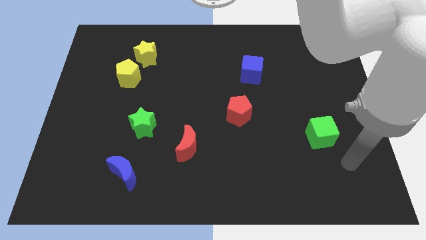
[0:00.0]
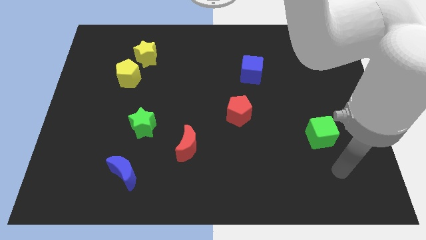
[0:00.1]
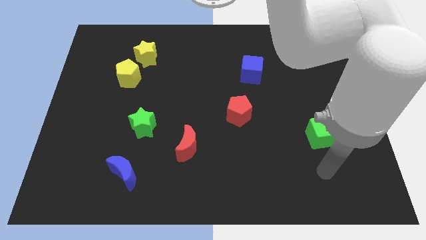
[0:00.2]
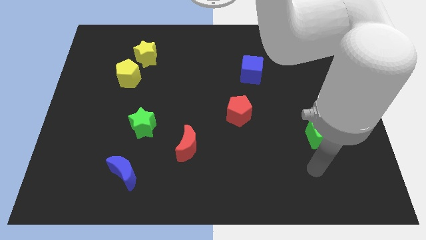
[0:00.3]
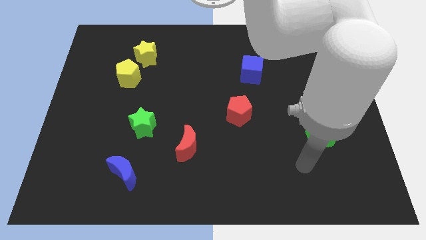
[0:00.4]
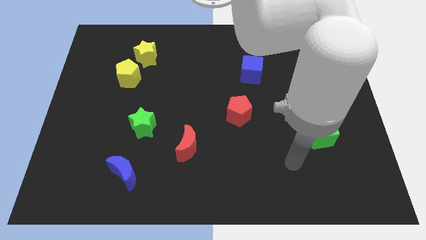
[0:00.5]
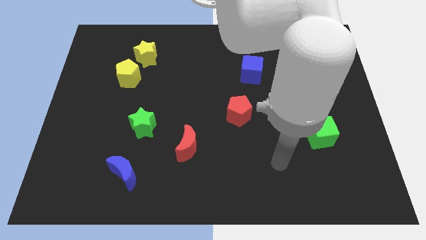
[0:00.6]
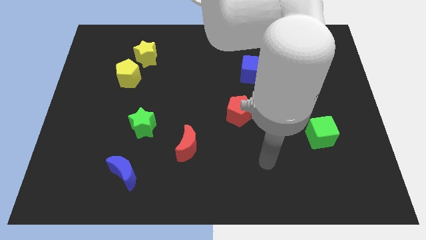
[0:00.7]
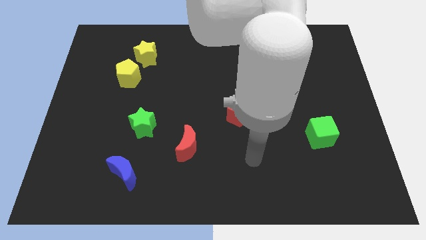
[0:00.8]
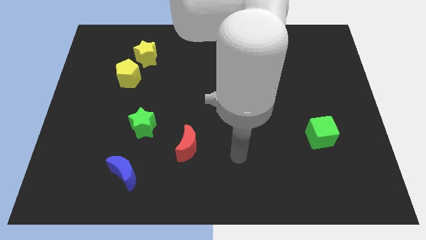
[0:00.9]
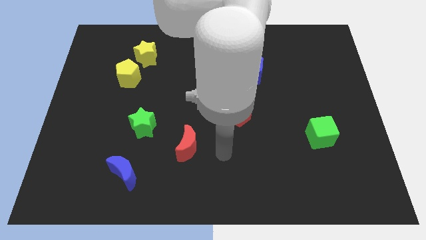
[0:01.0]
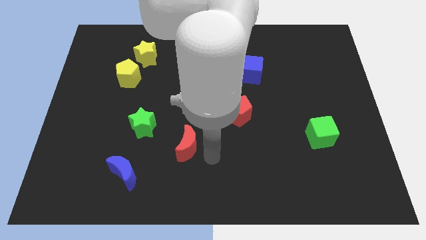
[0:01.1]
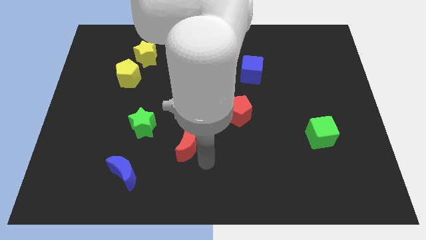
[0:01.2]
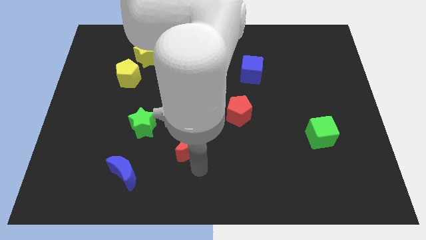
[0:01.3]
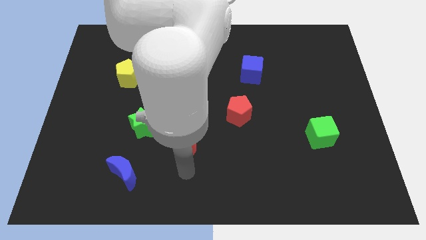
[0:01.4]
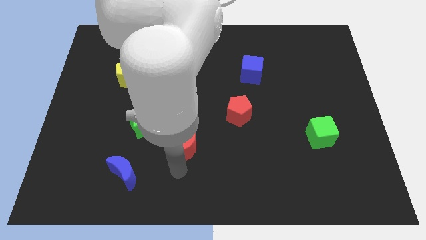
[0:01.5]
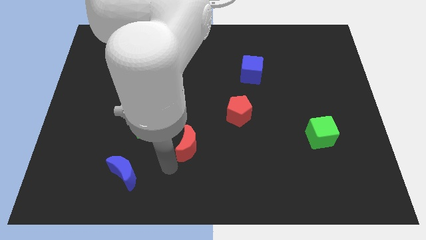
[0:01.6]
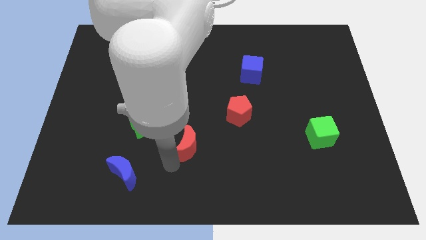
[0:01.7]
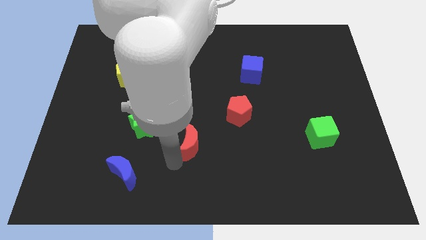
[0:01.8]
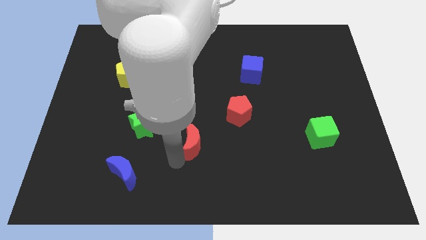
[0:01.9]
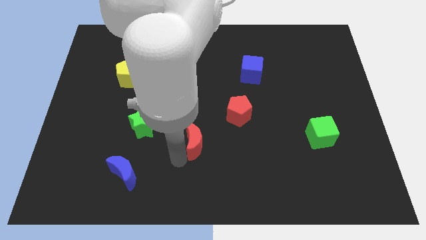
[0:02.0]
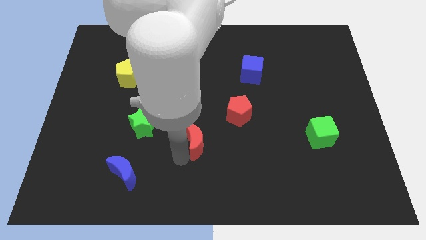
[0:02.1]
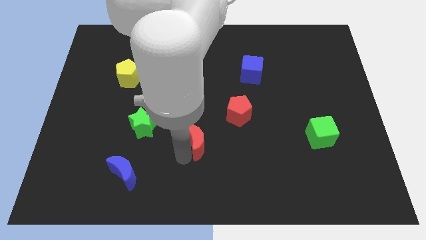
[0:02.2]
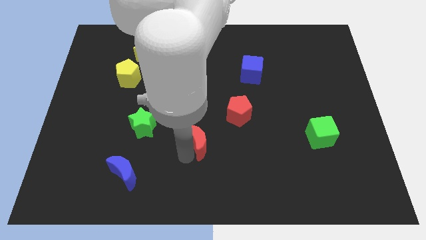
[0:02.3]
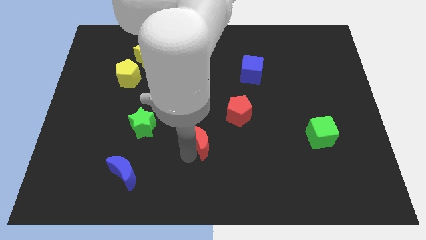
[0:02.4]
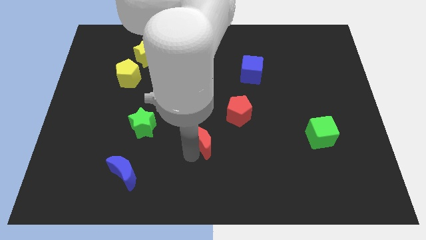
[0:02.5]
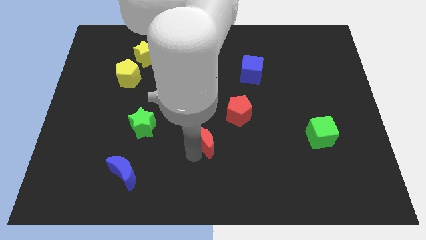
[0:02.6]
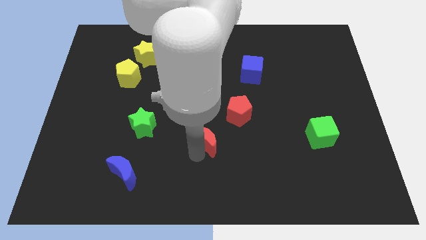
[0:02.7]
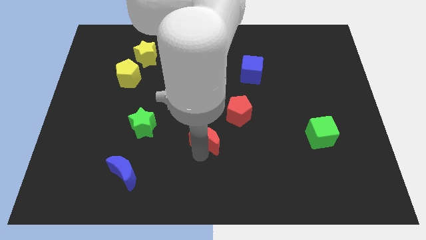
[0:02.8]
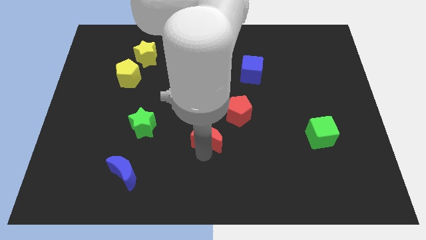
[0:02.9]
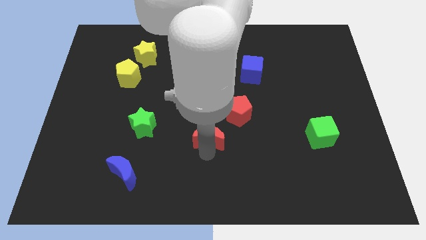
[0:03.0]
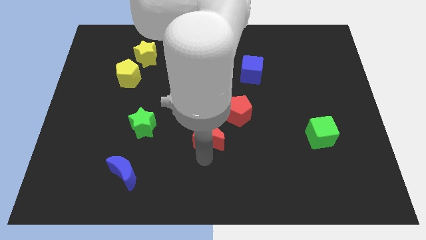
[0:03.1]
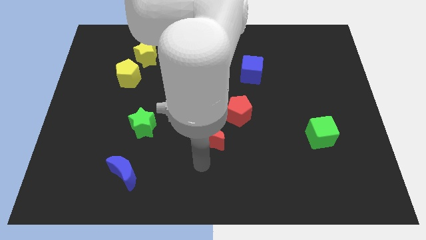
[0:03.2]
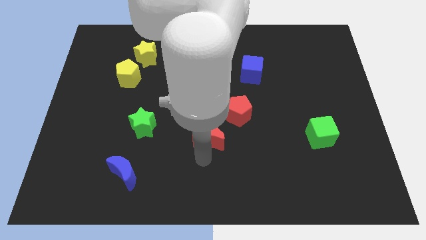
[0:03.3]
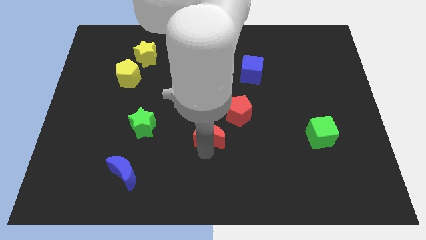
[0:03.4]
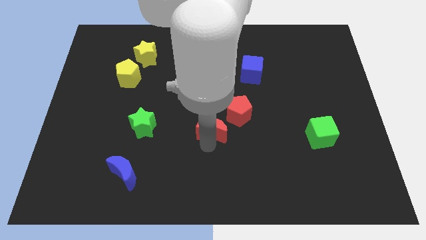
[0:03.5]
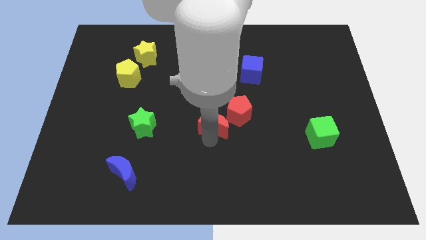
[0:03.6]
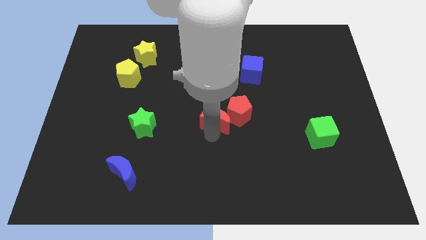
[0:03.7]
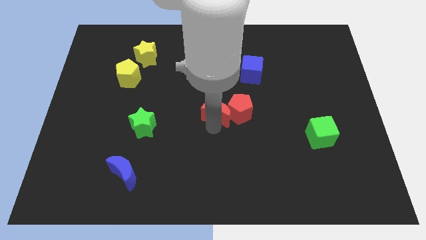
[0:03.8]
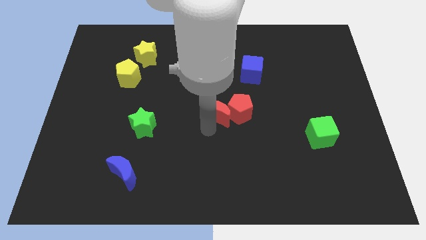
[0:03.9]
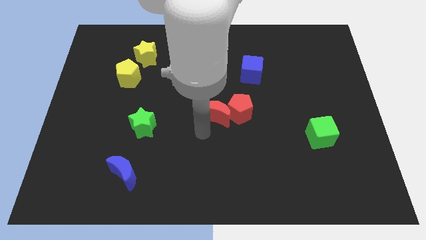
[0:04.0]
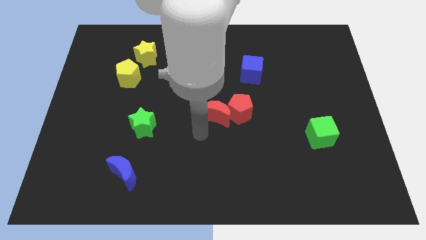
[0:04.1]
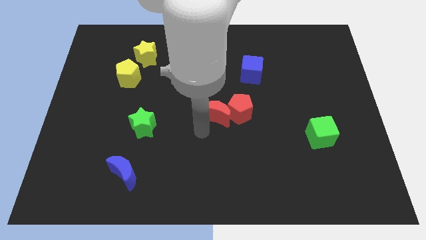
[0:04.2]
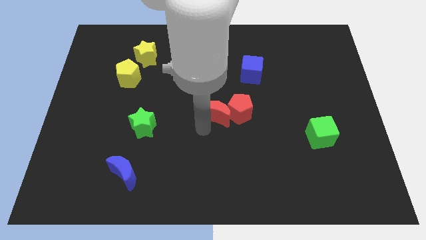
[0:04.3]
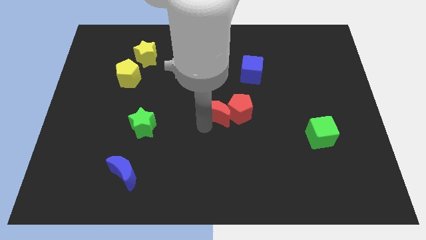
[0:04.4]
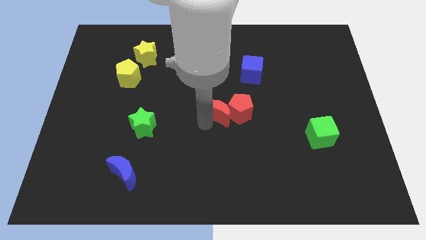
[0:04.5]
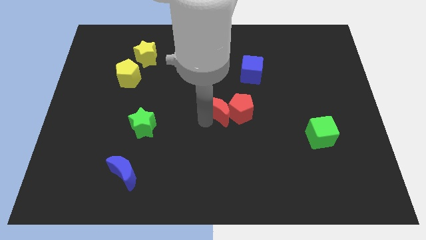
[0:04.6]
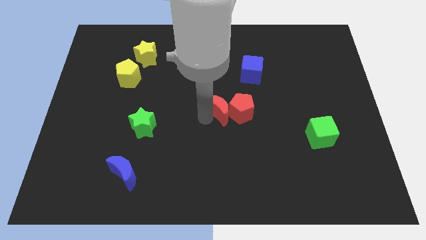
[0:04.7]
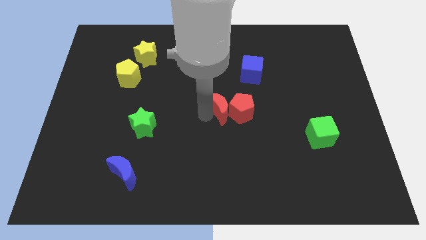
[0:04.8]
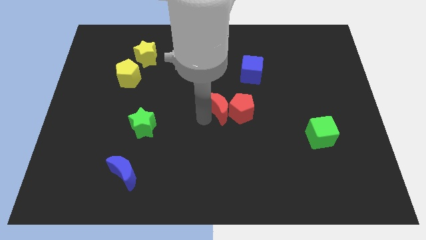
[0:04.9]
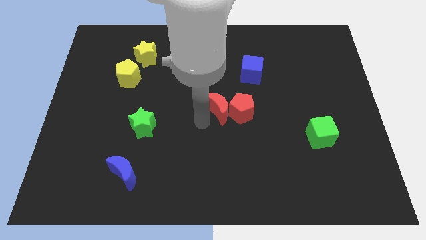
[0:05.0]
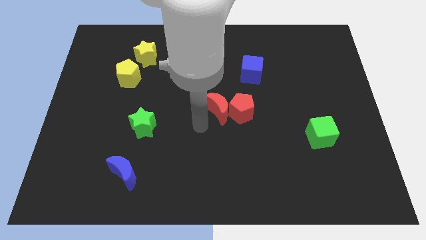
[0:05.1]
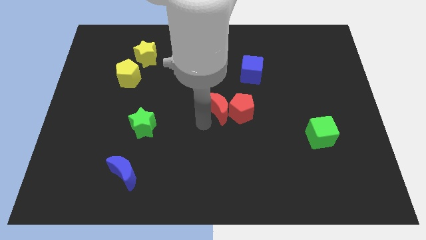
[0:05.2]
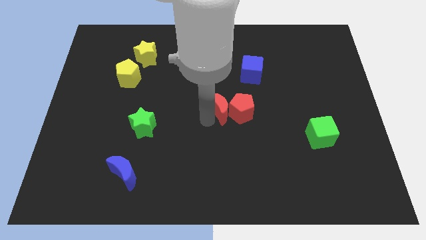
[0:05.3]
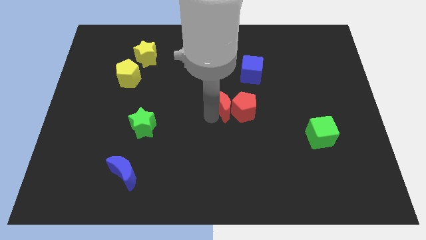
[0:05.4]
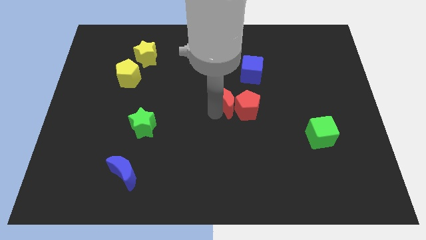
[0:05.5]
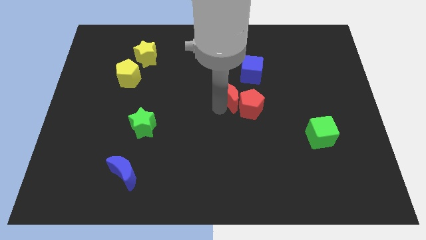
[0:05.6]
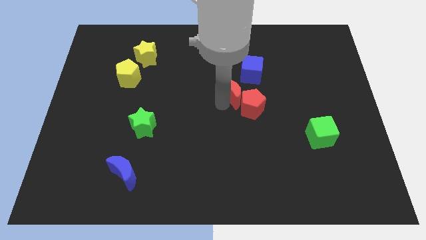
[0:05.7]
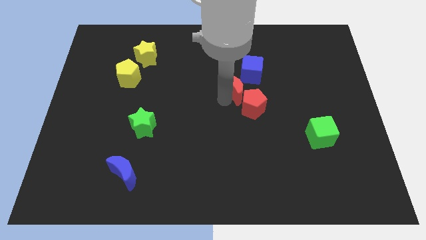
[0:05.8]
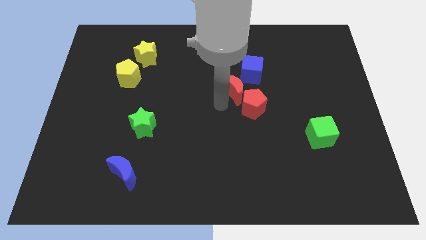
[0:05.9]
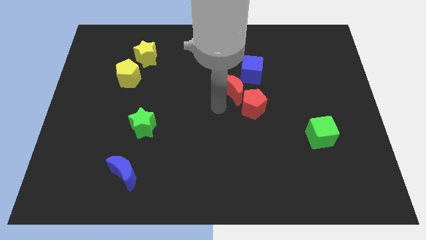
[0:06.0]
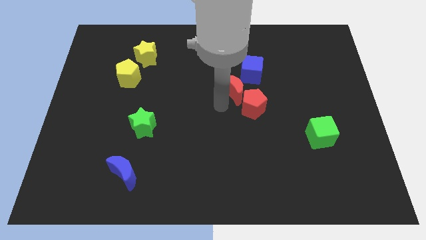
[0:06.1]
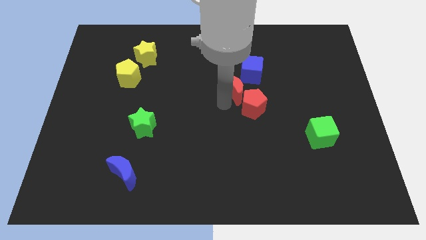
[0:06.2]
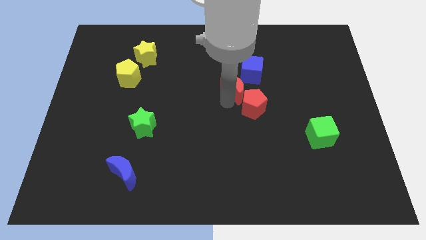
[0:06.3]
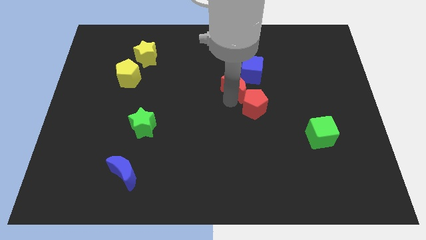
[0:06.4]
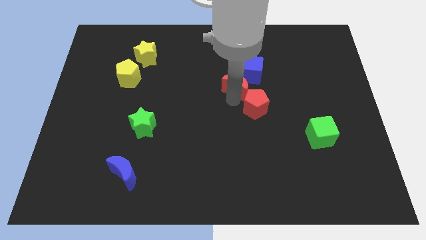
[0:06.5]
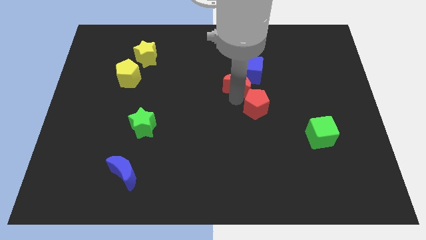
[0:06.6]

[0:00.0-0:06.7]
put the red moon towards the blue cube

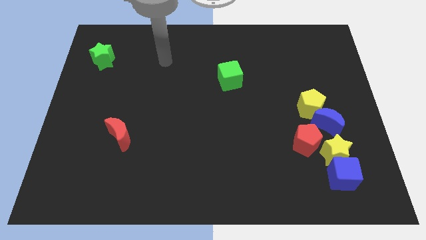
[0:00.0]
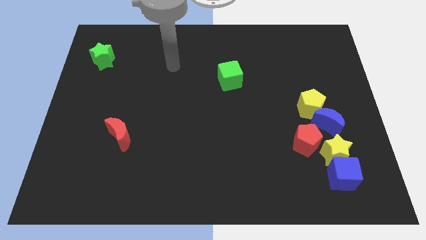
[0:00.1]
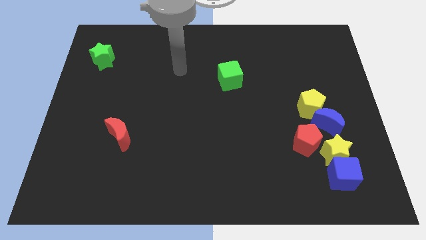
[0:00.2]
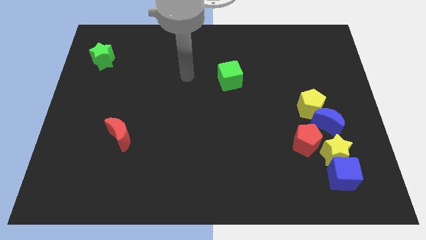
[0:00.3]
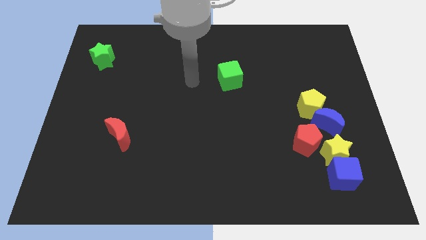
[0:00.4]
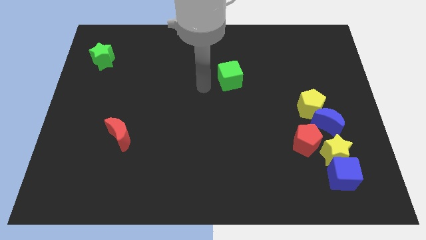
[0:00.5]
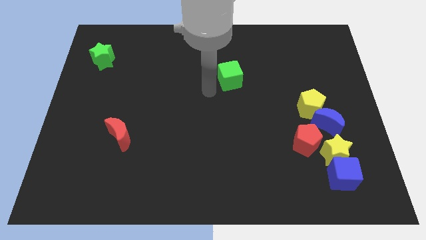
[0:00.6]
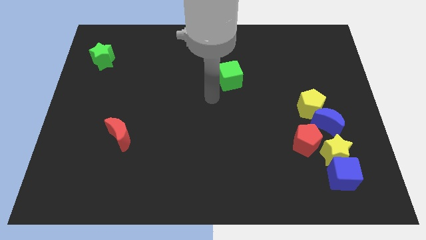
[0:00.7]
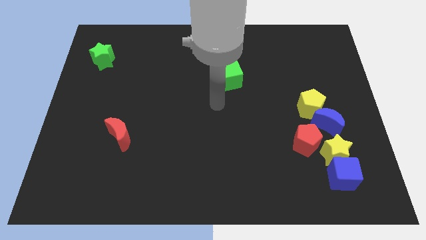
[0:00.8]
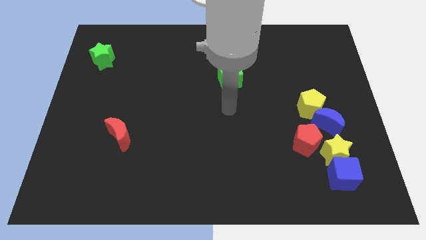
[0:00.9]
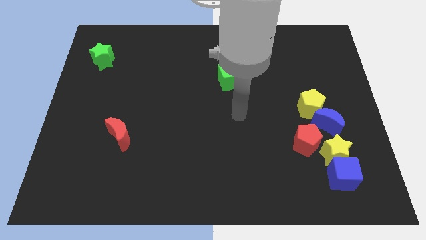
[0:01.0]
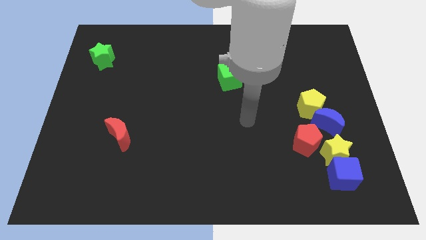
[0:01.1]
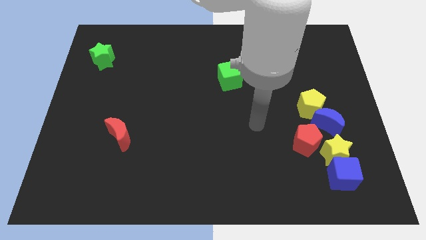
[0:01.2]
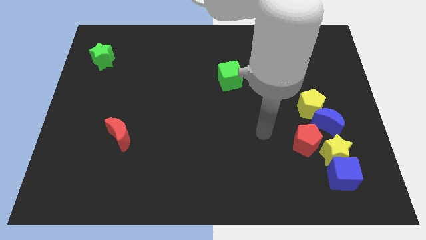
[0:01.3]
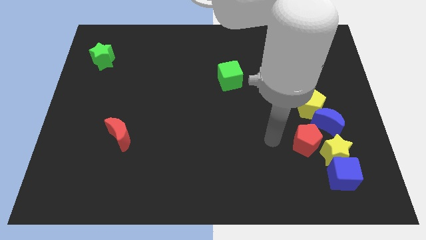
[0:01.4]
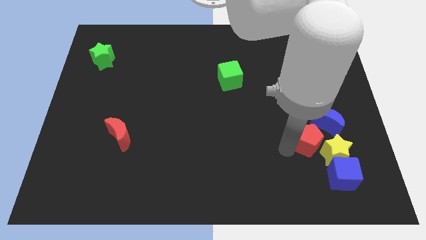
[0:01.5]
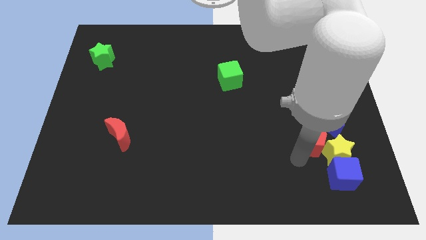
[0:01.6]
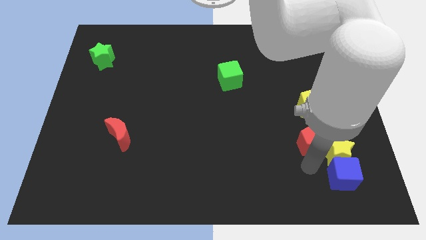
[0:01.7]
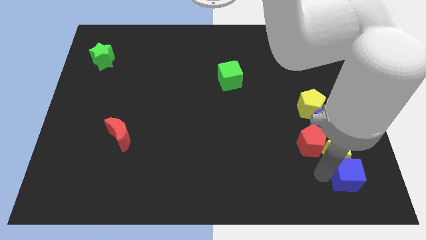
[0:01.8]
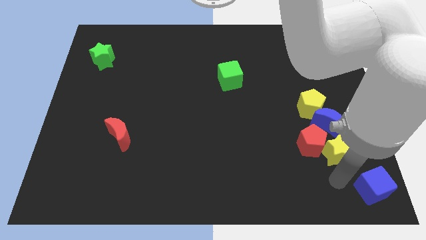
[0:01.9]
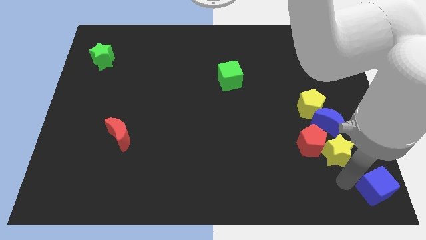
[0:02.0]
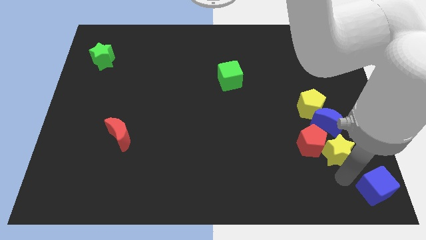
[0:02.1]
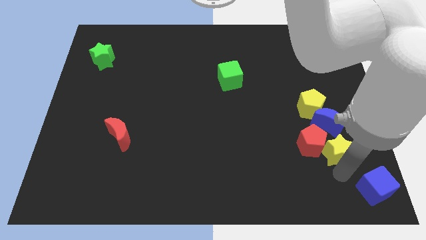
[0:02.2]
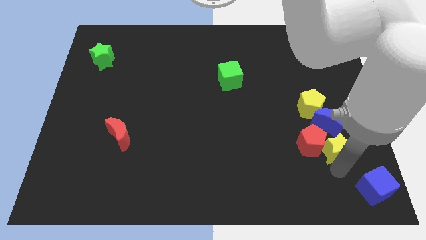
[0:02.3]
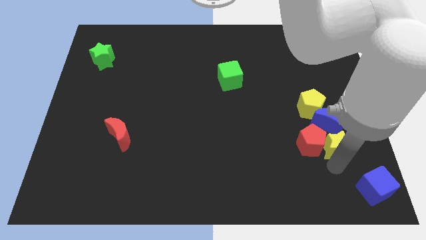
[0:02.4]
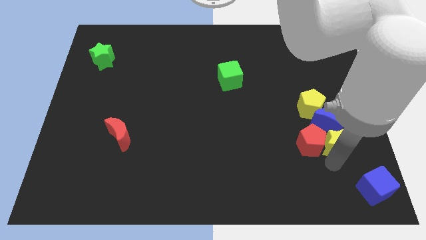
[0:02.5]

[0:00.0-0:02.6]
push the yellow star towards the blue moon
